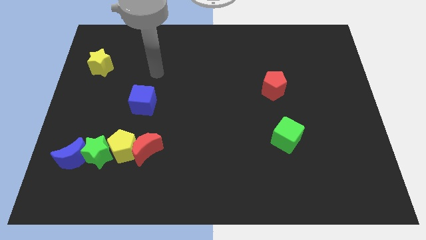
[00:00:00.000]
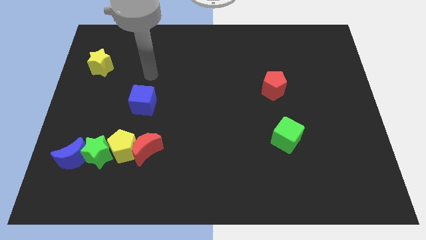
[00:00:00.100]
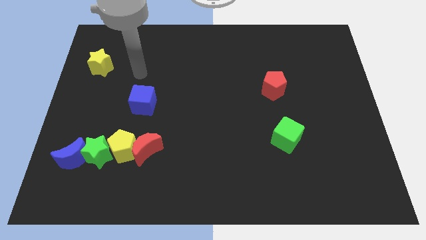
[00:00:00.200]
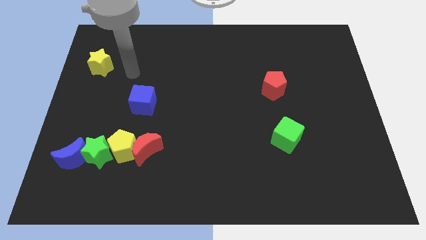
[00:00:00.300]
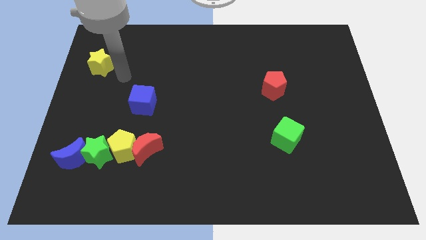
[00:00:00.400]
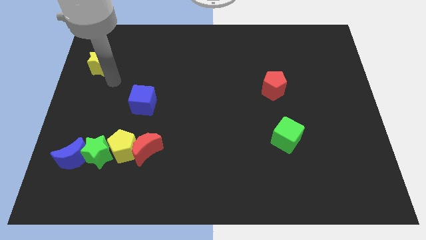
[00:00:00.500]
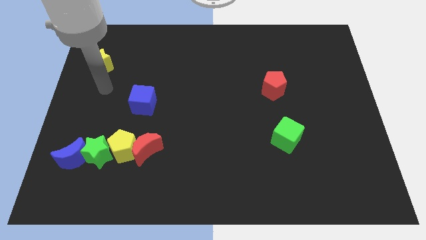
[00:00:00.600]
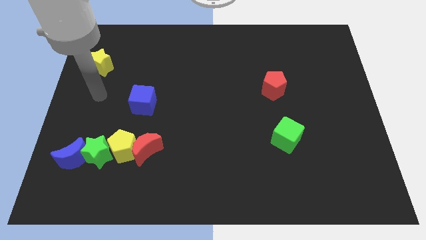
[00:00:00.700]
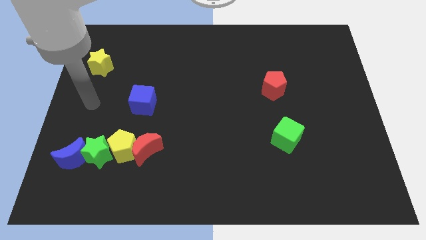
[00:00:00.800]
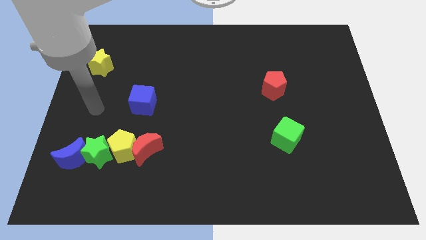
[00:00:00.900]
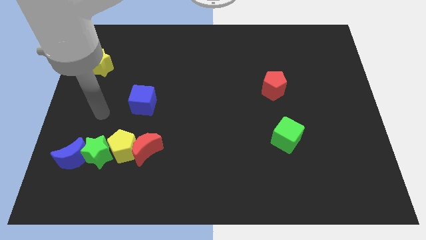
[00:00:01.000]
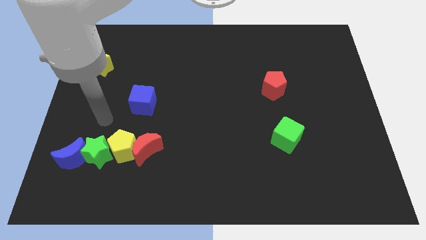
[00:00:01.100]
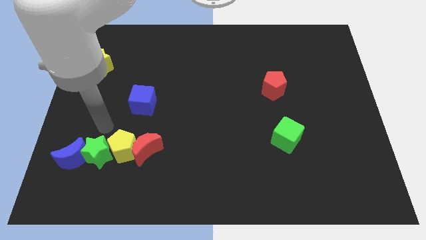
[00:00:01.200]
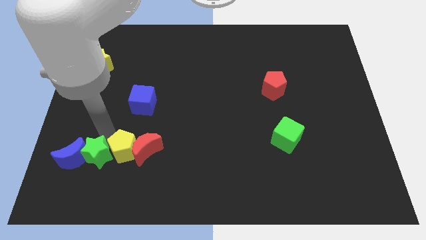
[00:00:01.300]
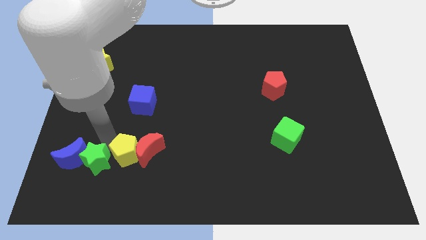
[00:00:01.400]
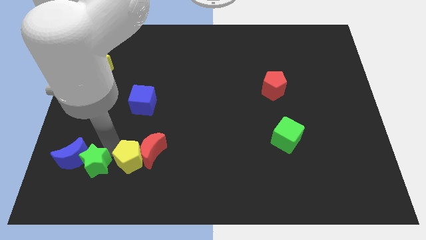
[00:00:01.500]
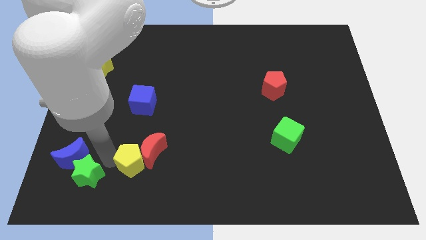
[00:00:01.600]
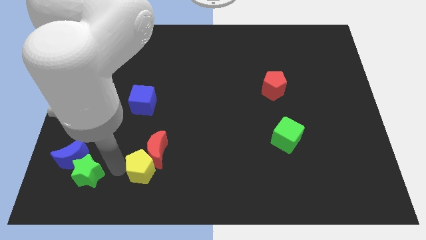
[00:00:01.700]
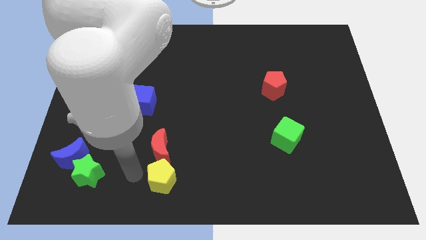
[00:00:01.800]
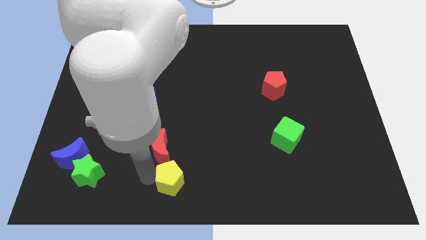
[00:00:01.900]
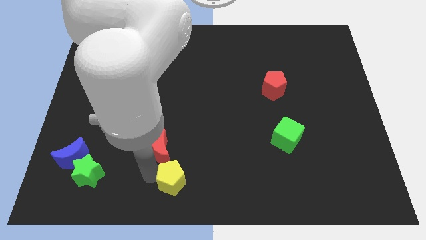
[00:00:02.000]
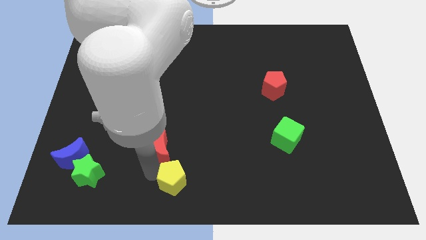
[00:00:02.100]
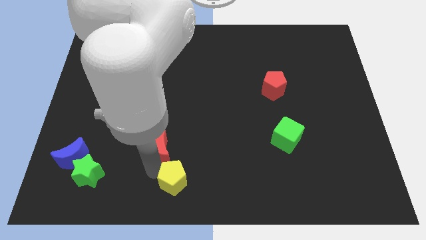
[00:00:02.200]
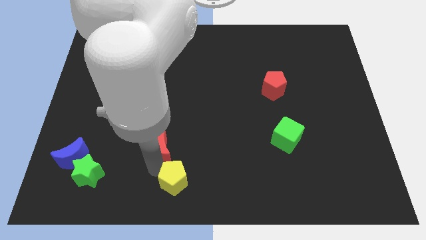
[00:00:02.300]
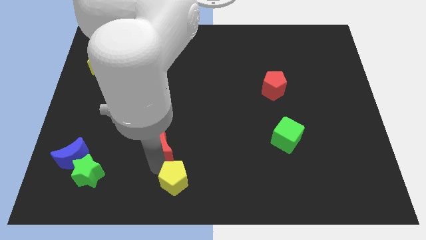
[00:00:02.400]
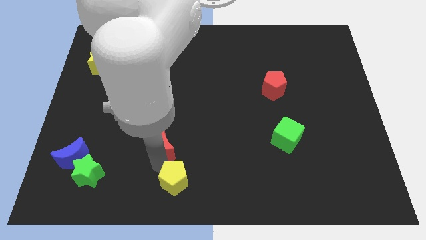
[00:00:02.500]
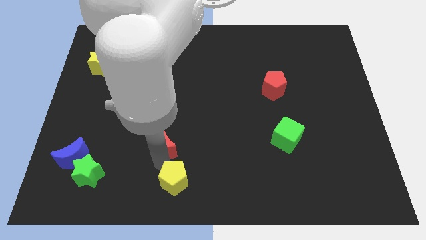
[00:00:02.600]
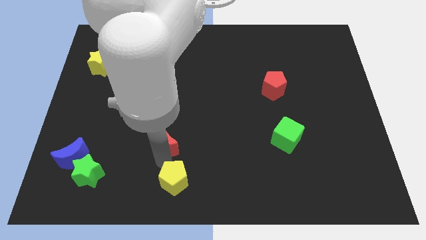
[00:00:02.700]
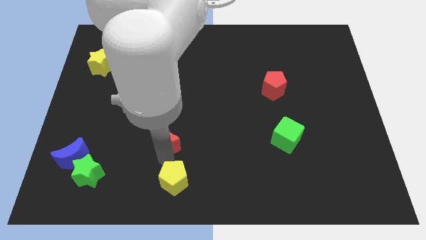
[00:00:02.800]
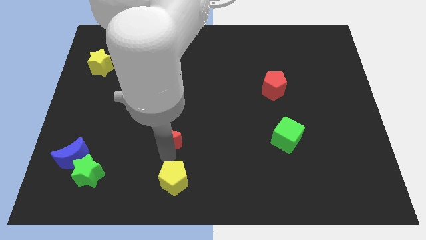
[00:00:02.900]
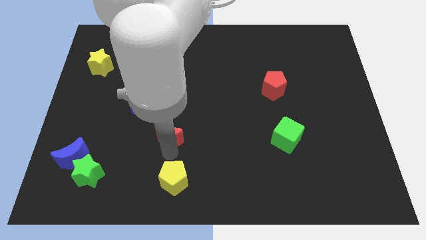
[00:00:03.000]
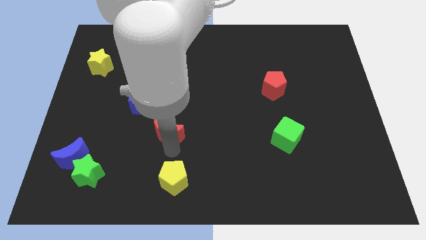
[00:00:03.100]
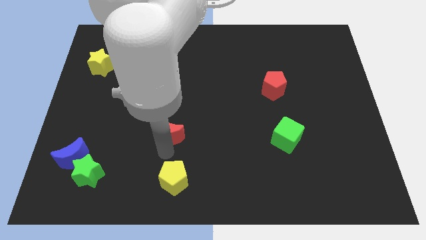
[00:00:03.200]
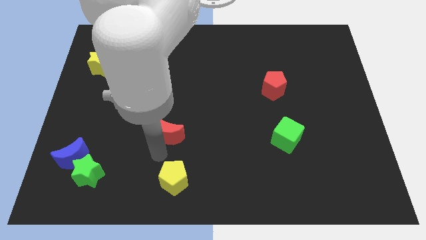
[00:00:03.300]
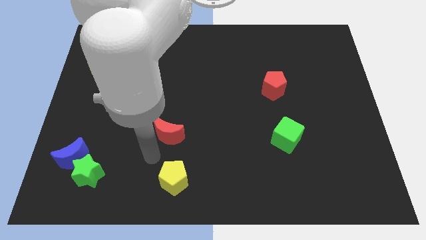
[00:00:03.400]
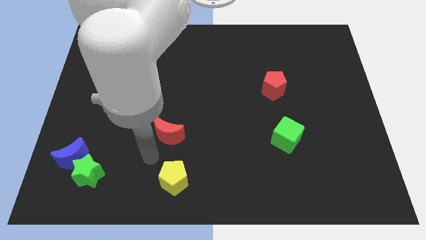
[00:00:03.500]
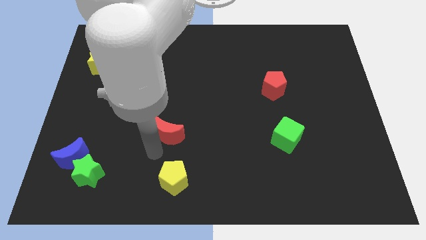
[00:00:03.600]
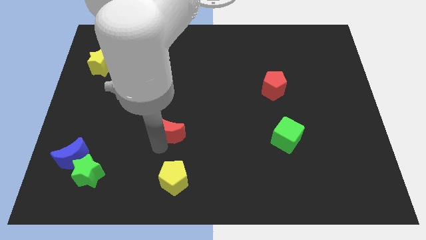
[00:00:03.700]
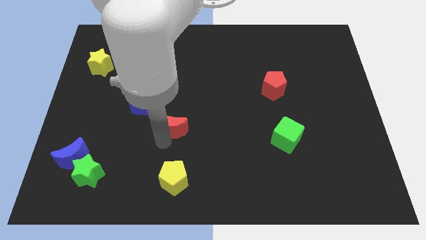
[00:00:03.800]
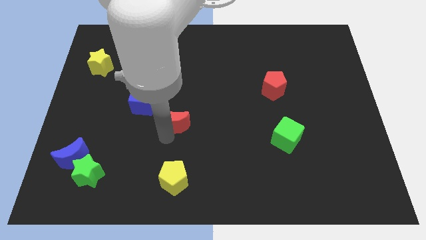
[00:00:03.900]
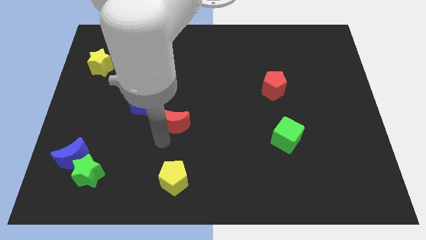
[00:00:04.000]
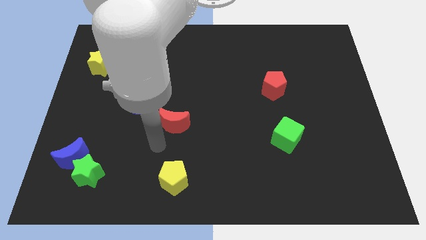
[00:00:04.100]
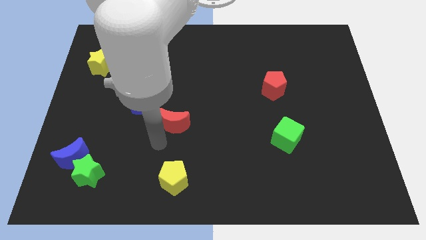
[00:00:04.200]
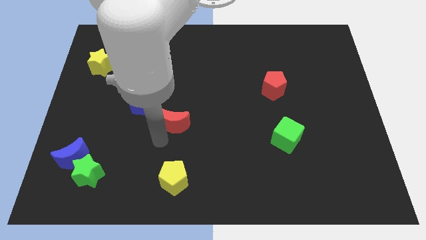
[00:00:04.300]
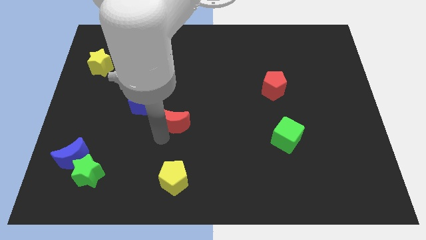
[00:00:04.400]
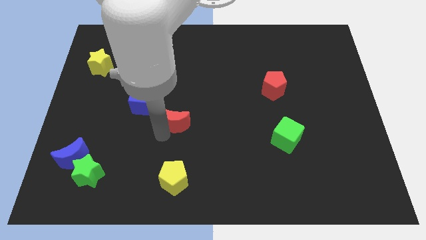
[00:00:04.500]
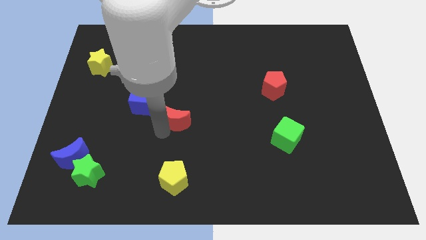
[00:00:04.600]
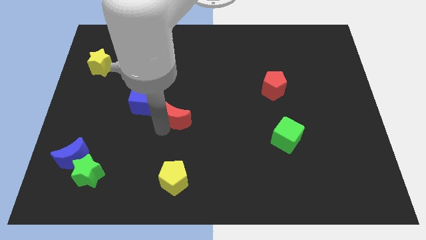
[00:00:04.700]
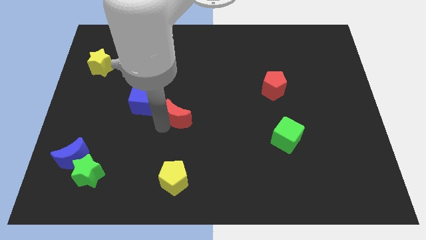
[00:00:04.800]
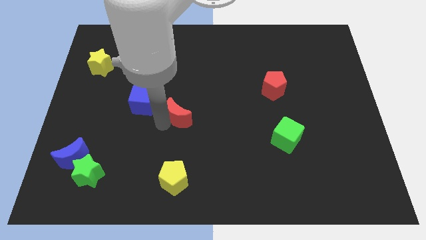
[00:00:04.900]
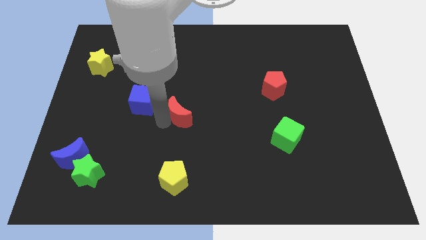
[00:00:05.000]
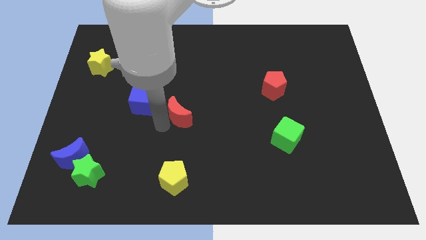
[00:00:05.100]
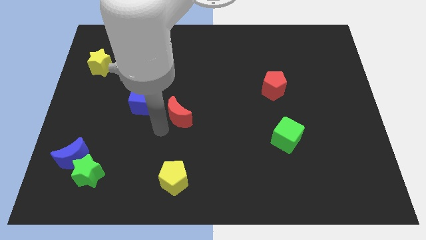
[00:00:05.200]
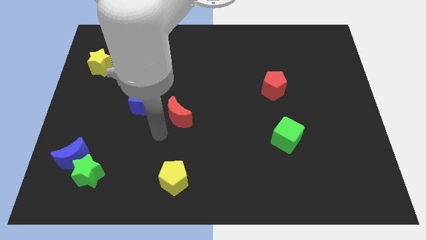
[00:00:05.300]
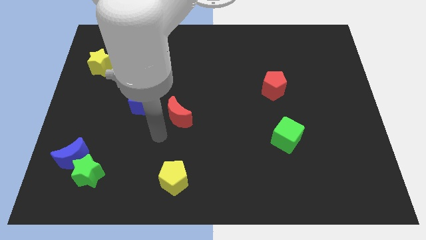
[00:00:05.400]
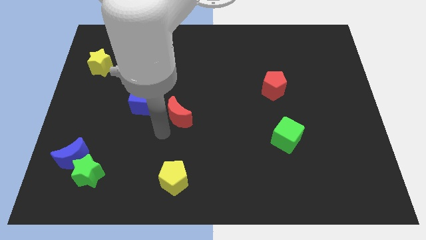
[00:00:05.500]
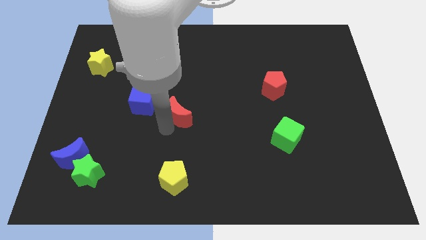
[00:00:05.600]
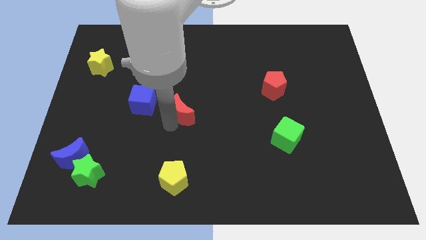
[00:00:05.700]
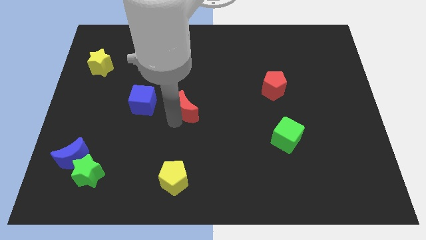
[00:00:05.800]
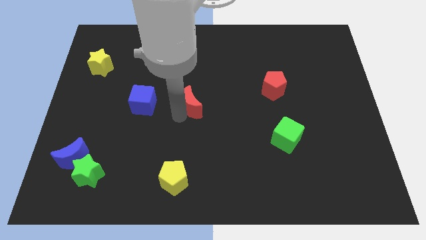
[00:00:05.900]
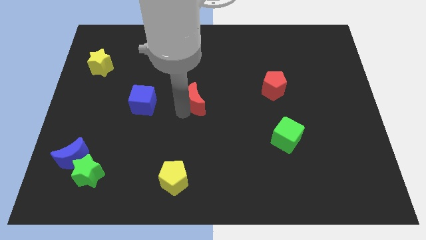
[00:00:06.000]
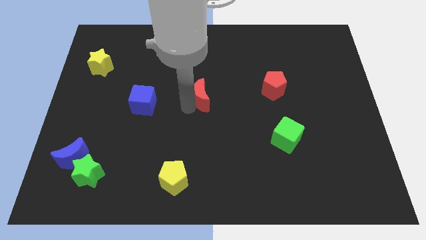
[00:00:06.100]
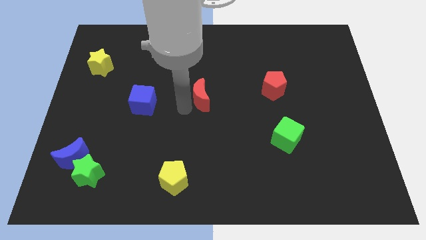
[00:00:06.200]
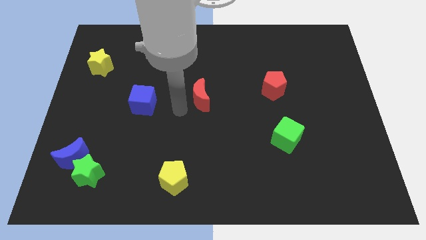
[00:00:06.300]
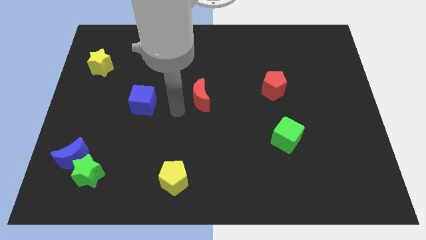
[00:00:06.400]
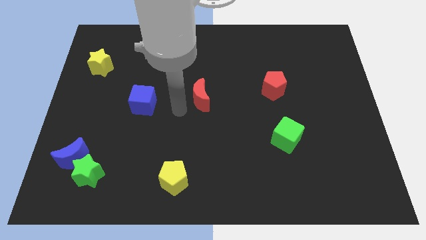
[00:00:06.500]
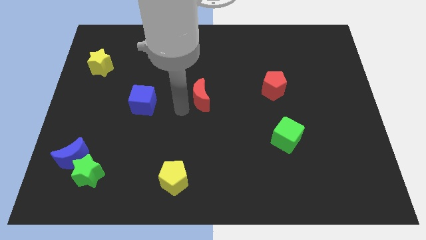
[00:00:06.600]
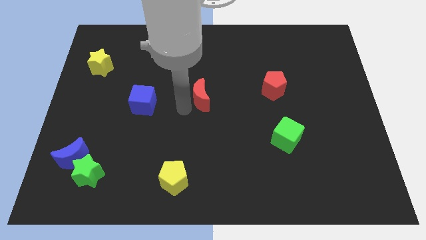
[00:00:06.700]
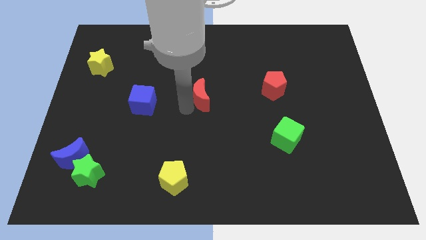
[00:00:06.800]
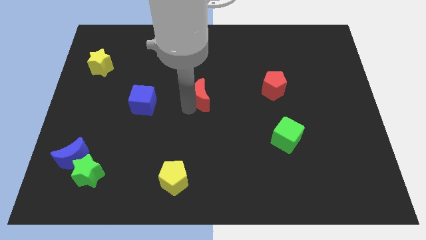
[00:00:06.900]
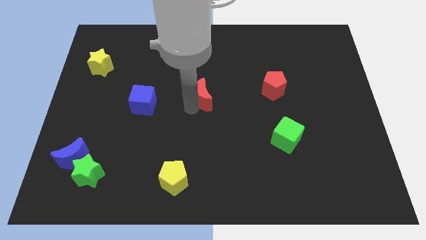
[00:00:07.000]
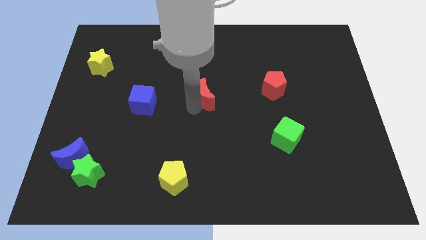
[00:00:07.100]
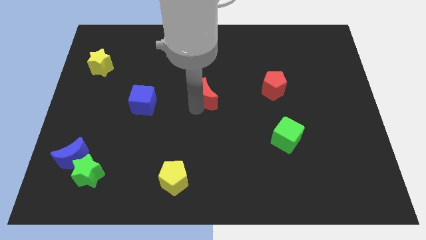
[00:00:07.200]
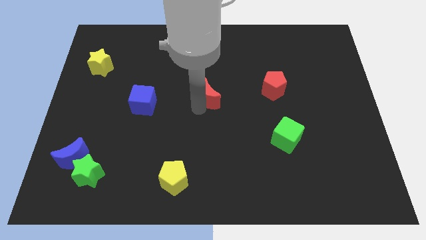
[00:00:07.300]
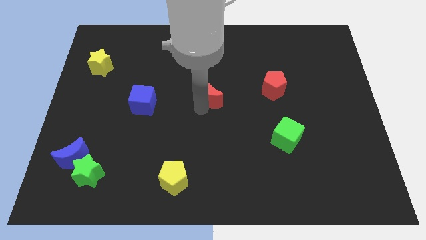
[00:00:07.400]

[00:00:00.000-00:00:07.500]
push the red moon up and then to the right

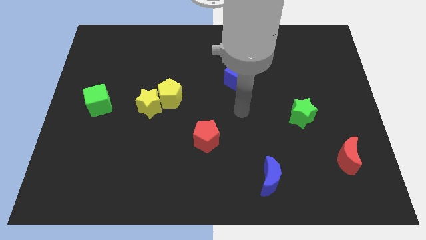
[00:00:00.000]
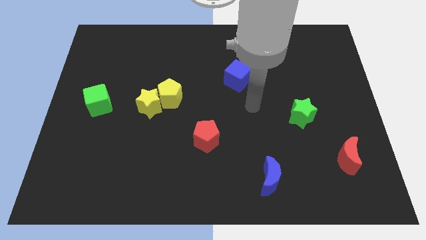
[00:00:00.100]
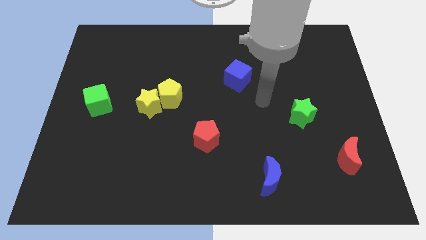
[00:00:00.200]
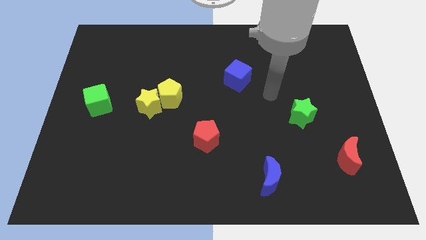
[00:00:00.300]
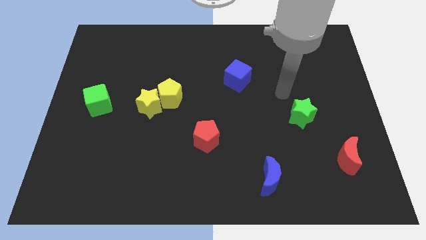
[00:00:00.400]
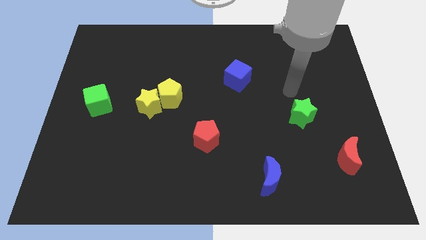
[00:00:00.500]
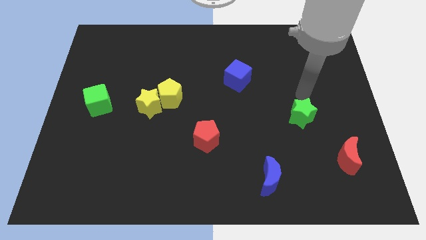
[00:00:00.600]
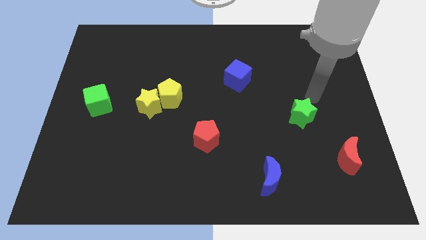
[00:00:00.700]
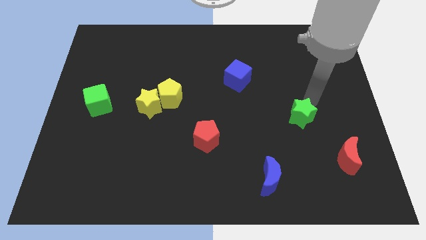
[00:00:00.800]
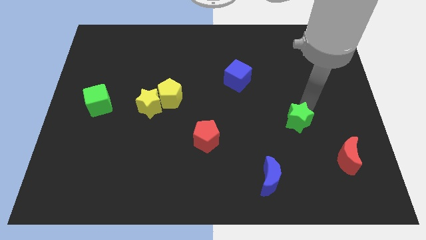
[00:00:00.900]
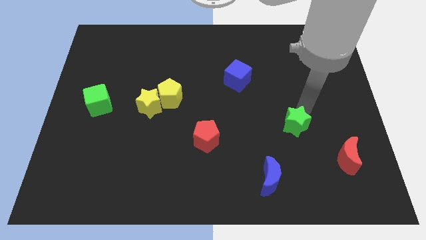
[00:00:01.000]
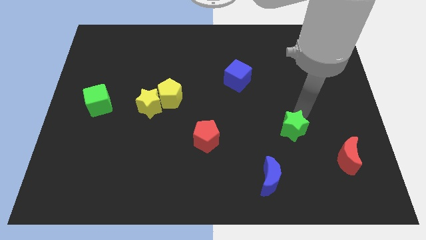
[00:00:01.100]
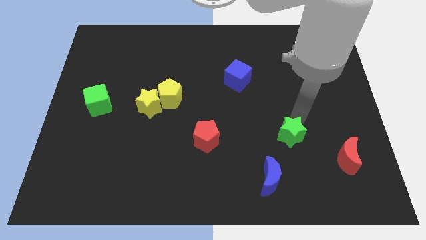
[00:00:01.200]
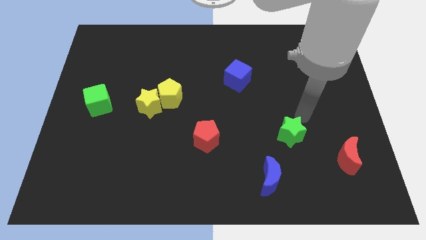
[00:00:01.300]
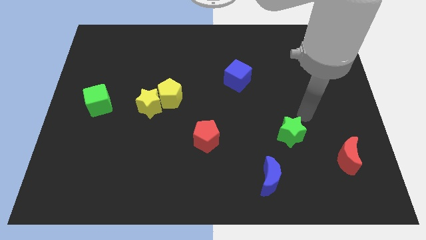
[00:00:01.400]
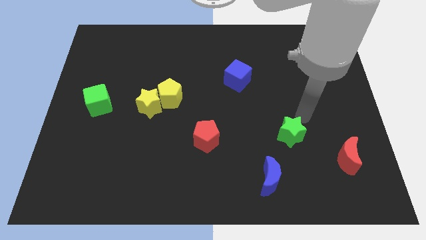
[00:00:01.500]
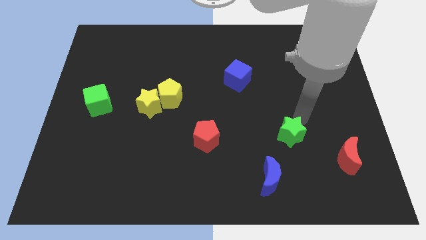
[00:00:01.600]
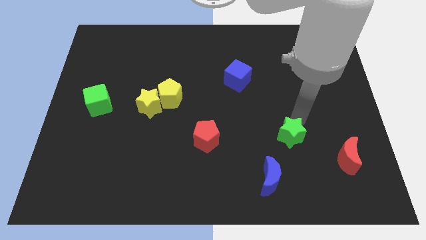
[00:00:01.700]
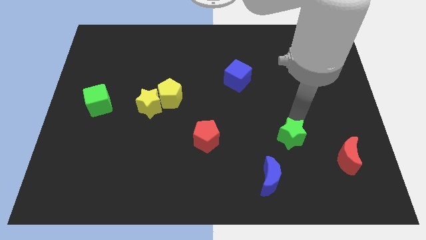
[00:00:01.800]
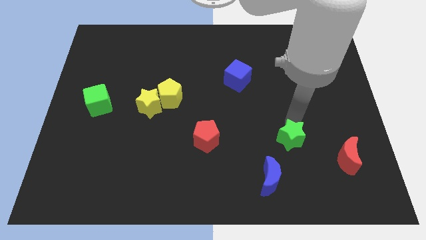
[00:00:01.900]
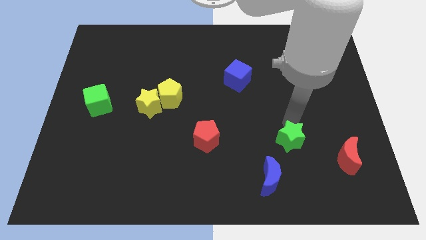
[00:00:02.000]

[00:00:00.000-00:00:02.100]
slide the green star down and left diagonally a bit
